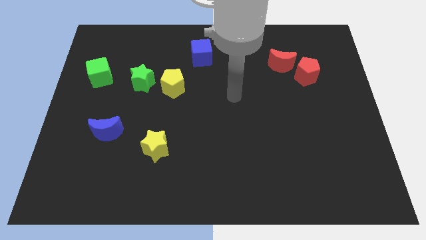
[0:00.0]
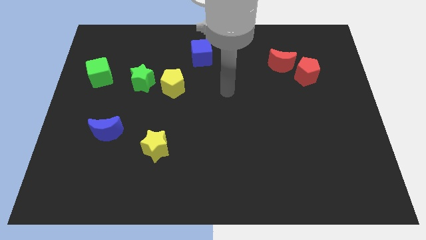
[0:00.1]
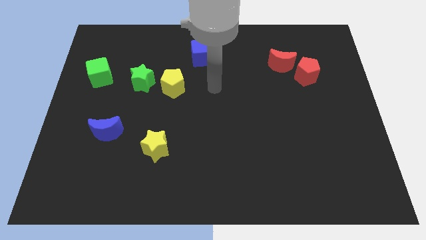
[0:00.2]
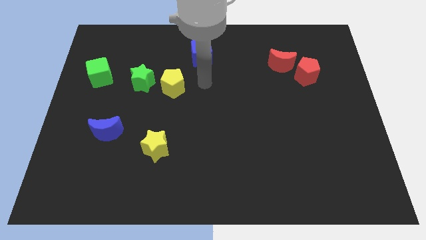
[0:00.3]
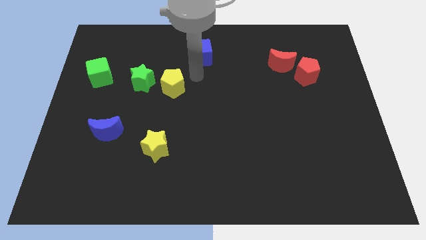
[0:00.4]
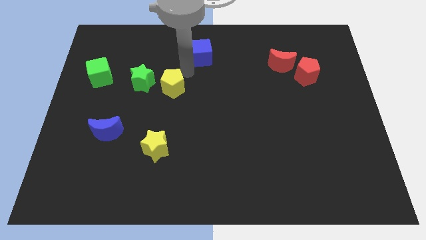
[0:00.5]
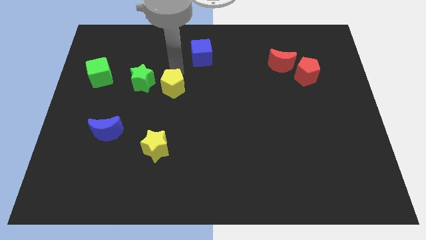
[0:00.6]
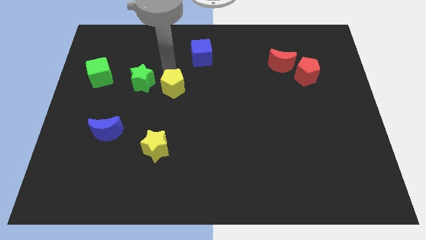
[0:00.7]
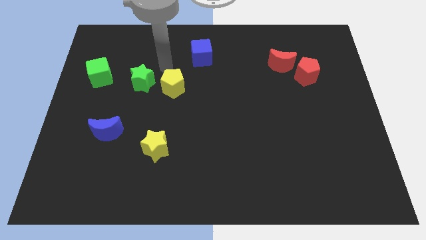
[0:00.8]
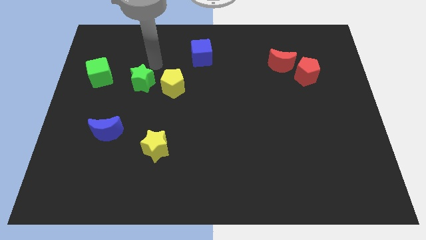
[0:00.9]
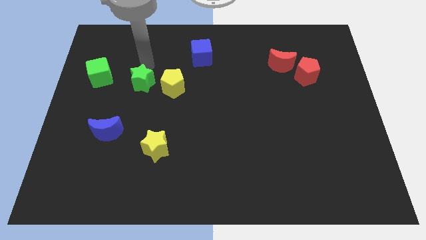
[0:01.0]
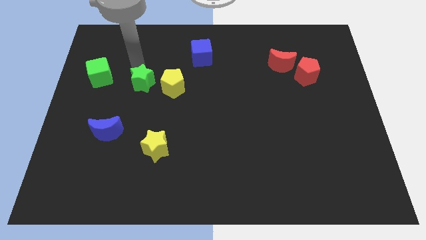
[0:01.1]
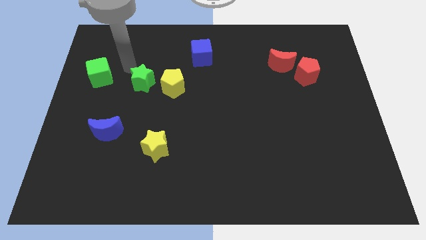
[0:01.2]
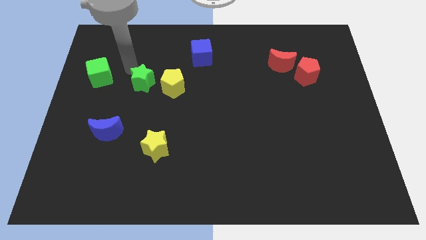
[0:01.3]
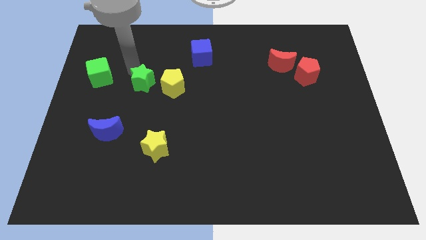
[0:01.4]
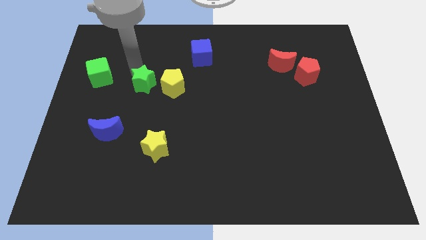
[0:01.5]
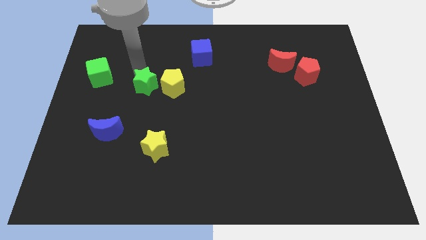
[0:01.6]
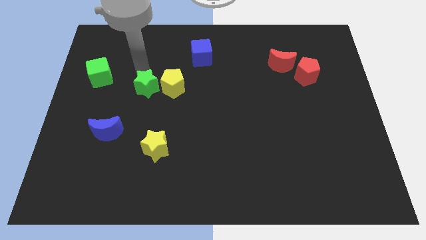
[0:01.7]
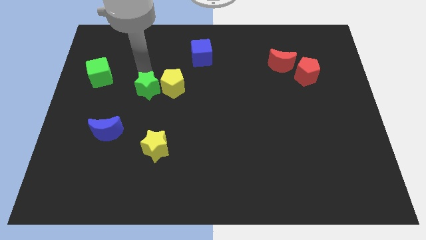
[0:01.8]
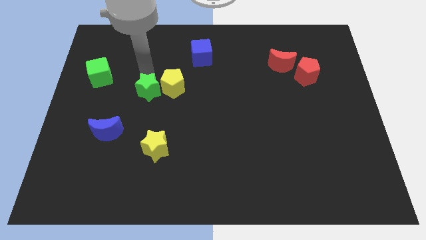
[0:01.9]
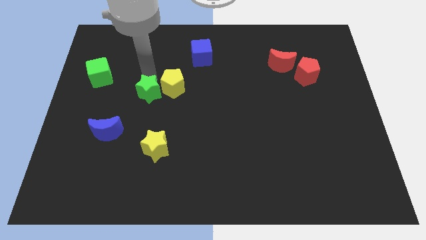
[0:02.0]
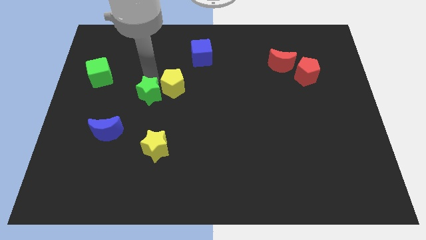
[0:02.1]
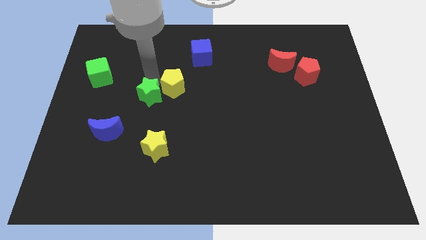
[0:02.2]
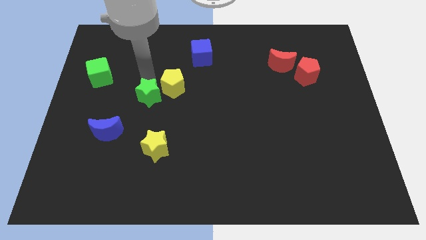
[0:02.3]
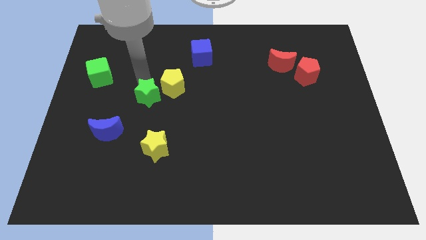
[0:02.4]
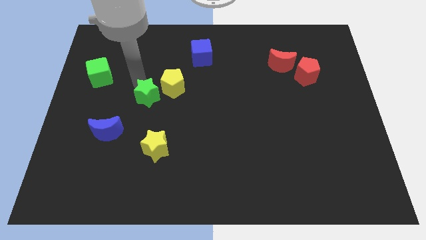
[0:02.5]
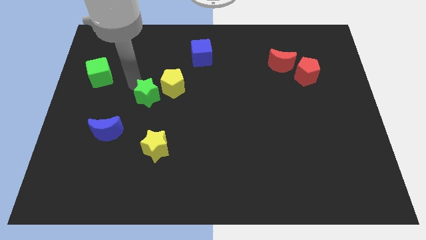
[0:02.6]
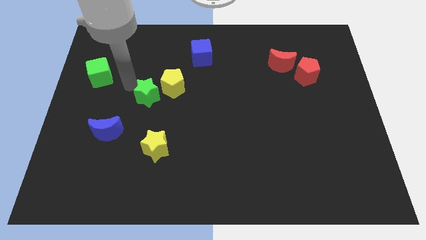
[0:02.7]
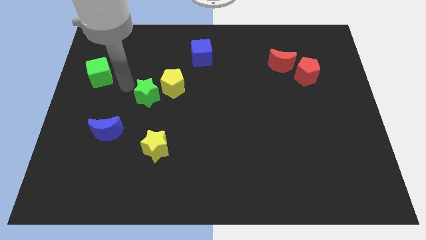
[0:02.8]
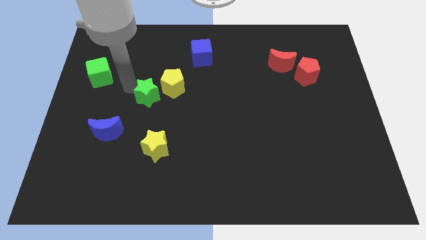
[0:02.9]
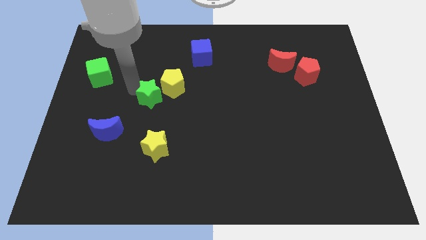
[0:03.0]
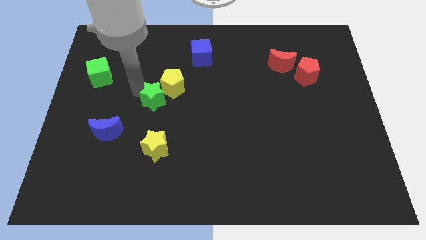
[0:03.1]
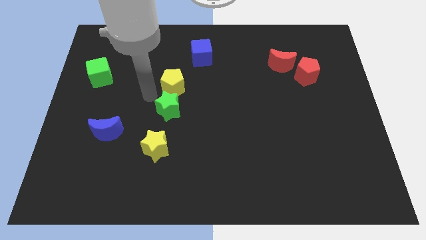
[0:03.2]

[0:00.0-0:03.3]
slide the green star a bit down and to the right

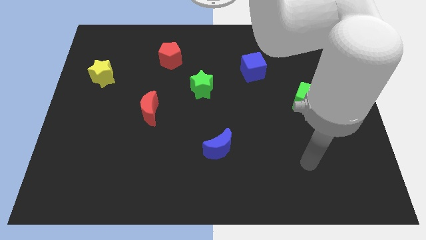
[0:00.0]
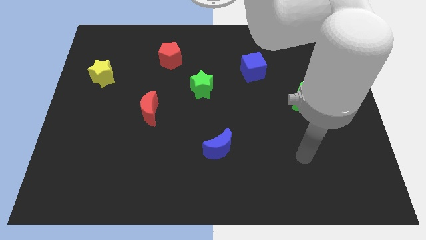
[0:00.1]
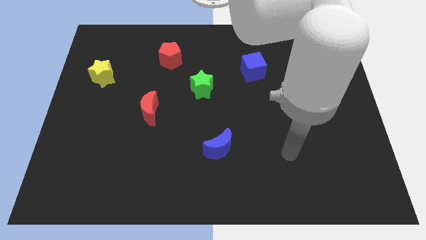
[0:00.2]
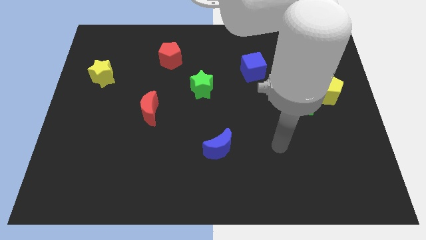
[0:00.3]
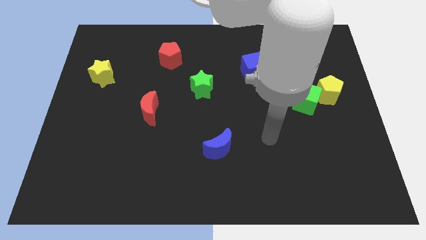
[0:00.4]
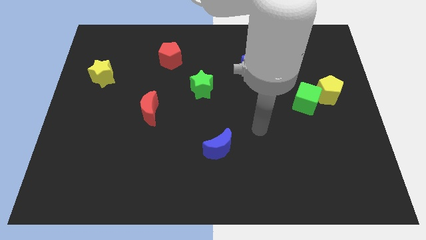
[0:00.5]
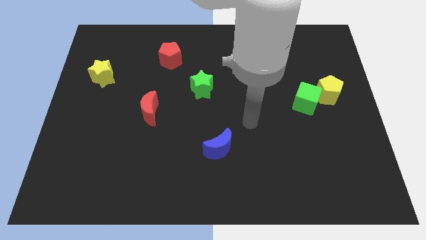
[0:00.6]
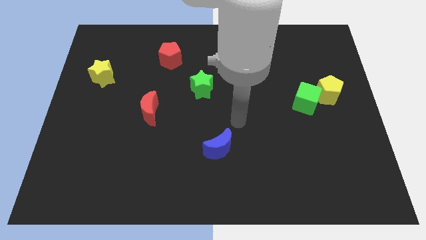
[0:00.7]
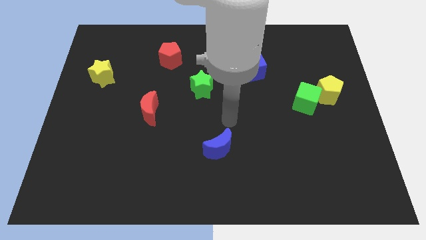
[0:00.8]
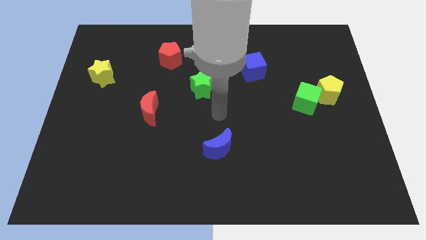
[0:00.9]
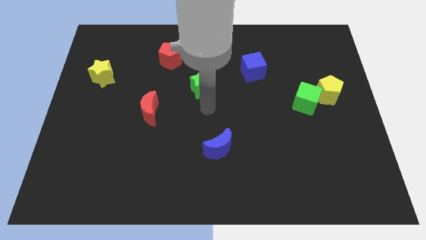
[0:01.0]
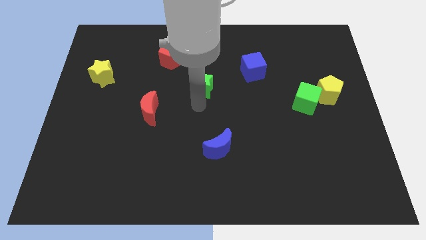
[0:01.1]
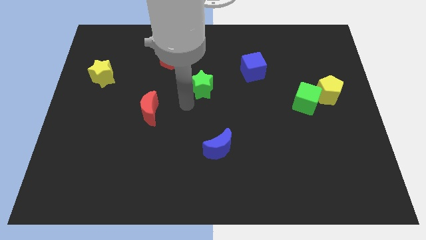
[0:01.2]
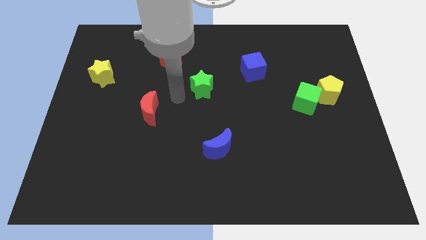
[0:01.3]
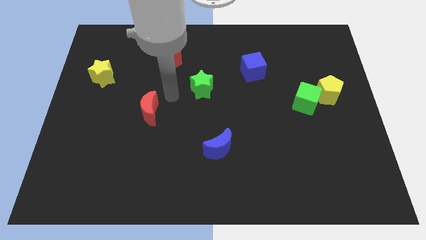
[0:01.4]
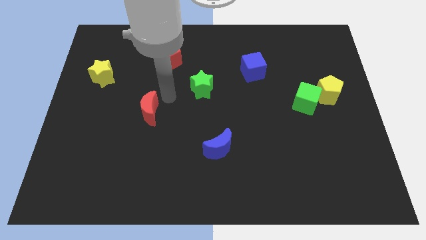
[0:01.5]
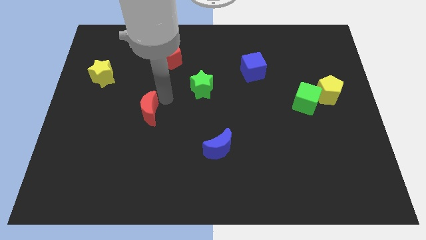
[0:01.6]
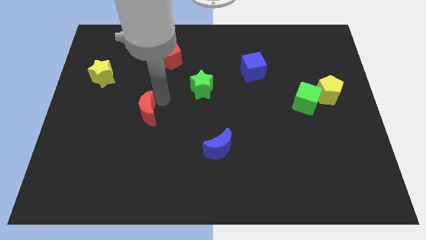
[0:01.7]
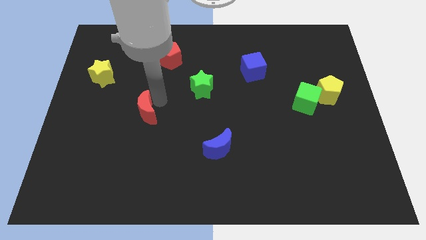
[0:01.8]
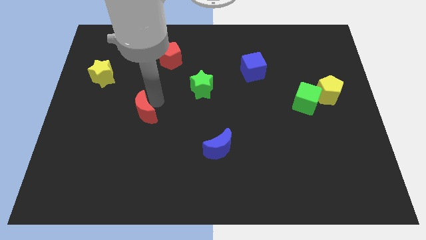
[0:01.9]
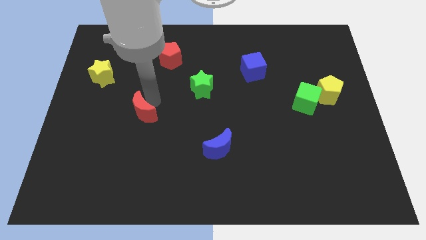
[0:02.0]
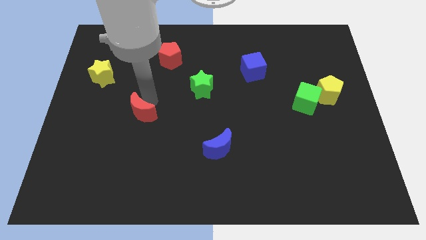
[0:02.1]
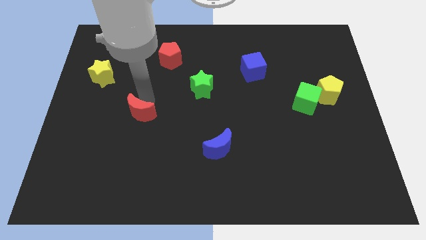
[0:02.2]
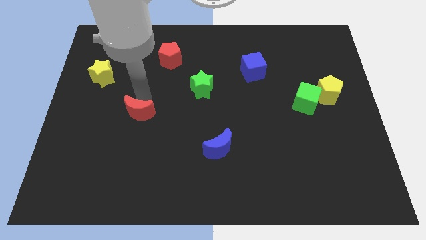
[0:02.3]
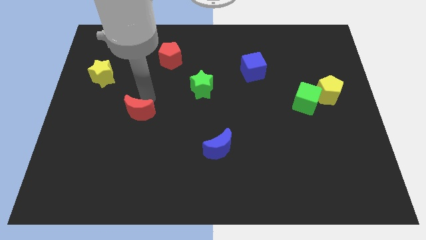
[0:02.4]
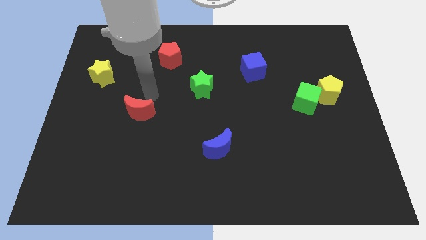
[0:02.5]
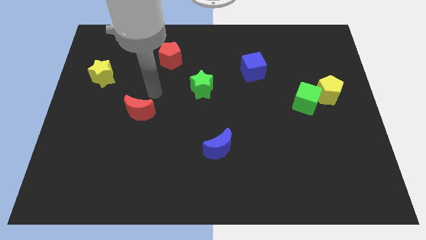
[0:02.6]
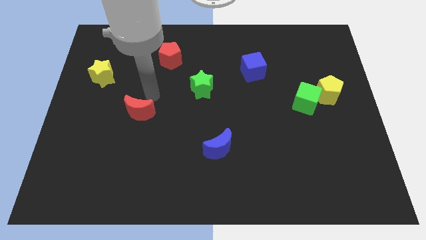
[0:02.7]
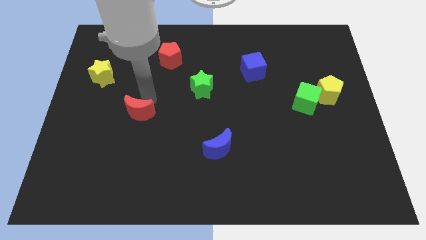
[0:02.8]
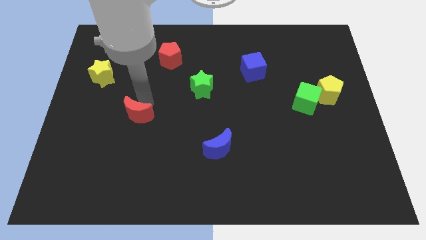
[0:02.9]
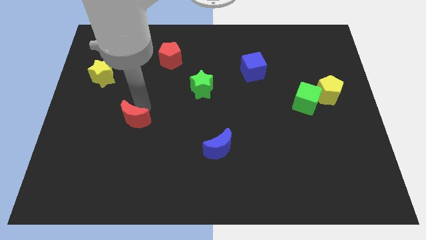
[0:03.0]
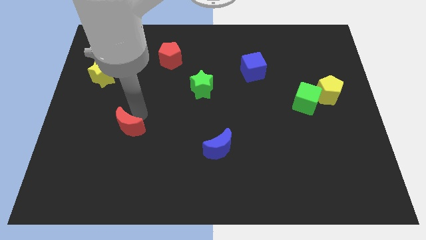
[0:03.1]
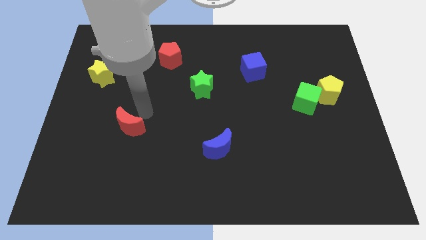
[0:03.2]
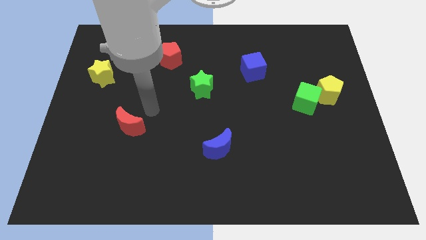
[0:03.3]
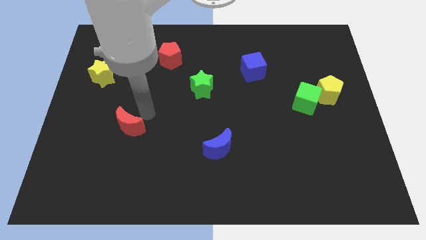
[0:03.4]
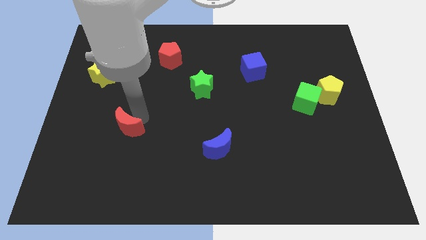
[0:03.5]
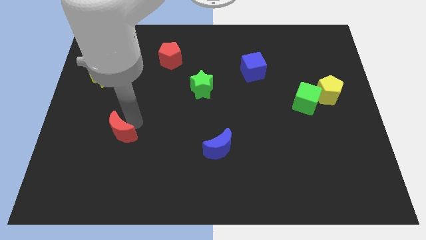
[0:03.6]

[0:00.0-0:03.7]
slightly move the red moon down and left diagonally

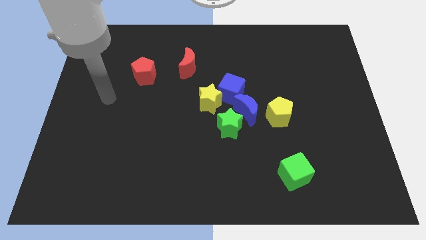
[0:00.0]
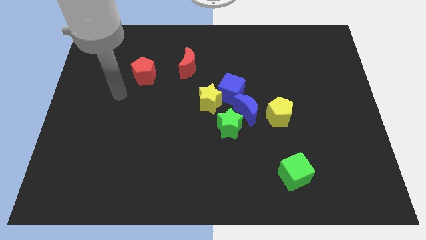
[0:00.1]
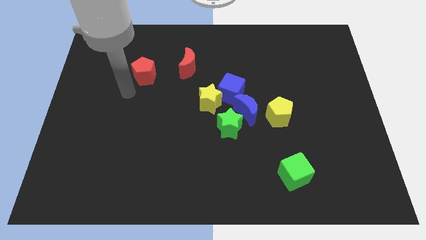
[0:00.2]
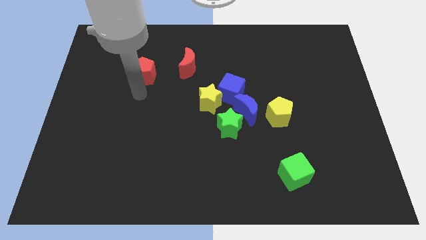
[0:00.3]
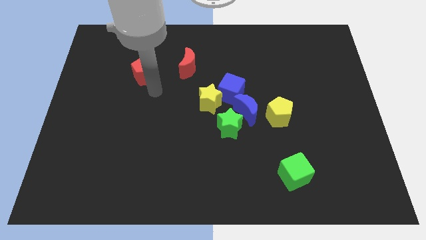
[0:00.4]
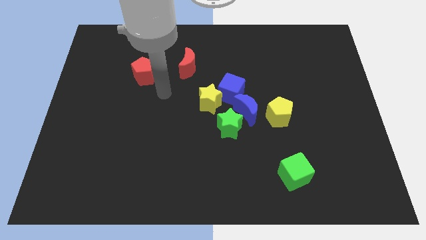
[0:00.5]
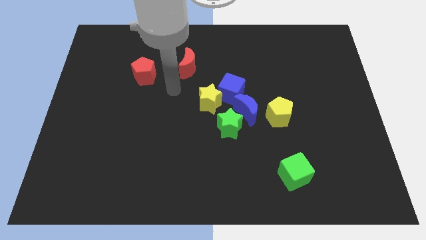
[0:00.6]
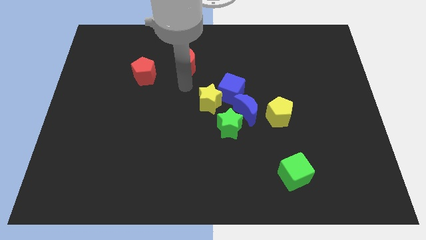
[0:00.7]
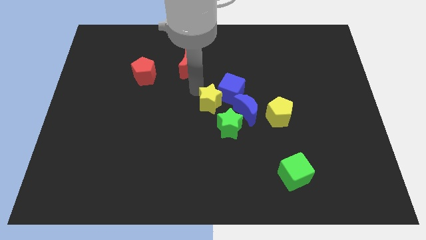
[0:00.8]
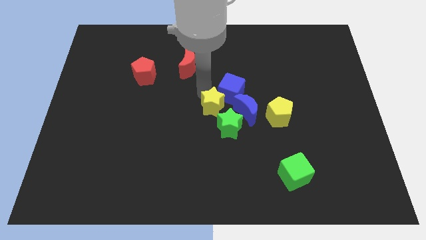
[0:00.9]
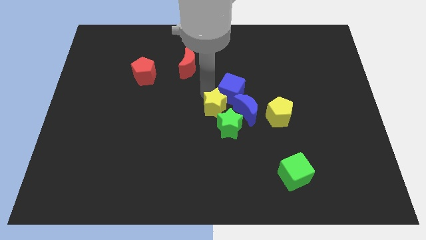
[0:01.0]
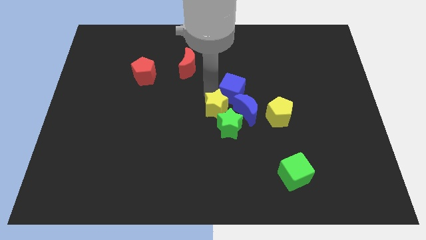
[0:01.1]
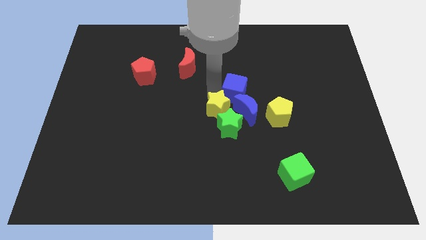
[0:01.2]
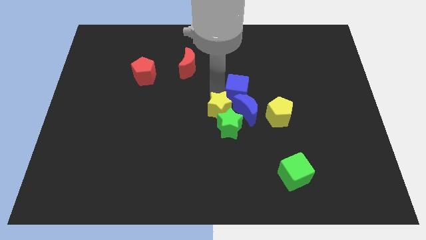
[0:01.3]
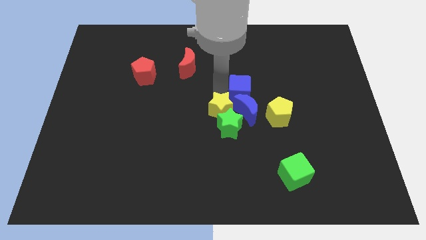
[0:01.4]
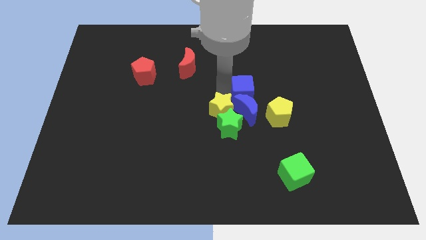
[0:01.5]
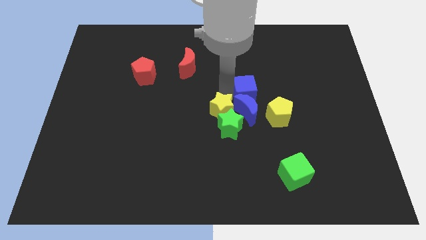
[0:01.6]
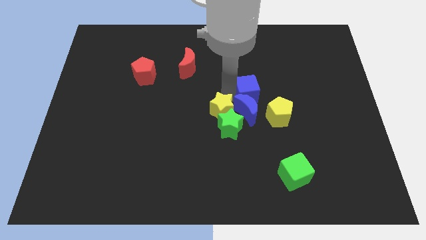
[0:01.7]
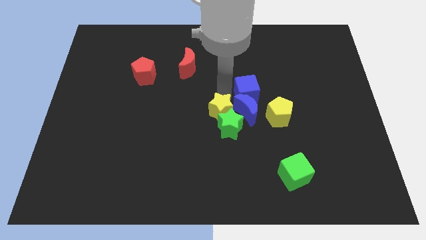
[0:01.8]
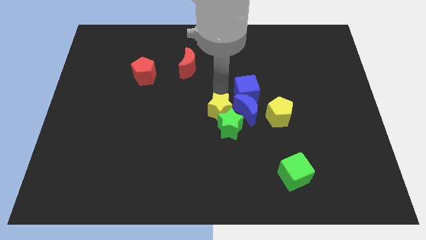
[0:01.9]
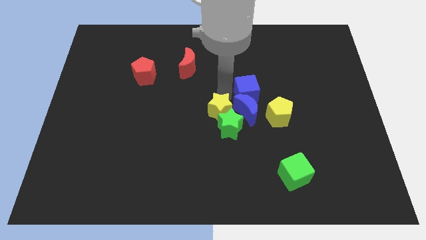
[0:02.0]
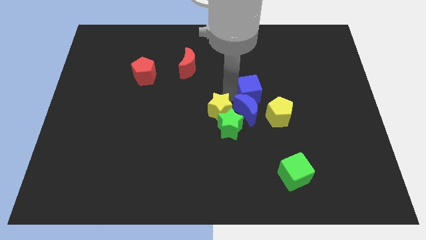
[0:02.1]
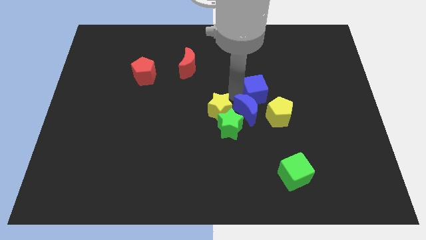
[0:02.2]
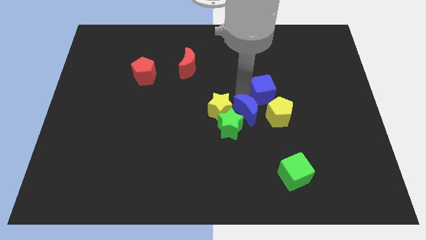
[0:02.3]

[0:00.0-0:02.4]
slide the blue cube to the right slightly
